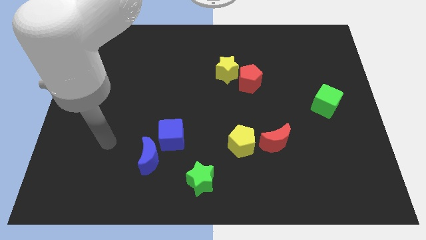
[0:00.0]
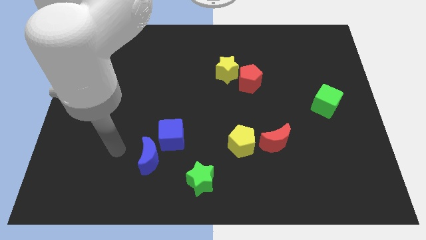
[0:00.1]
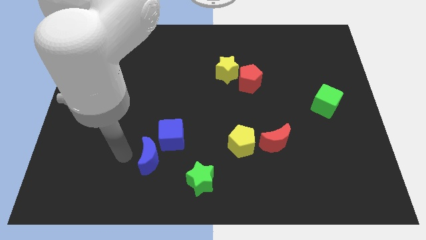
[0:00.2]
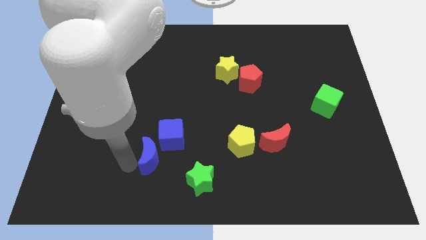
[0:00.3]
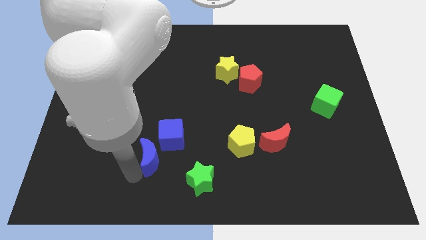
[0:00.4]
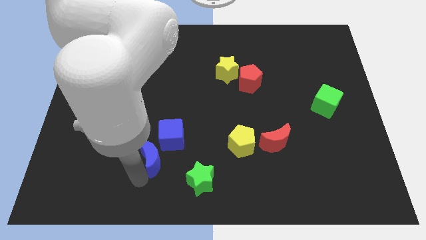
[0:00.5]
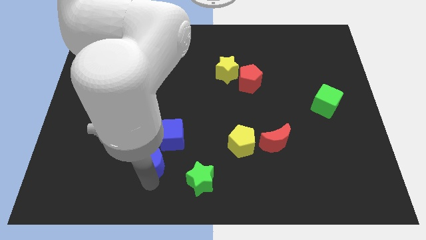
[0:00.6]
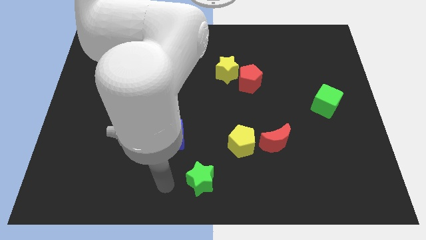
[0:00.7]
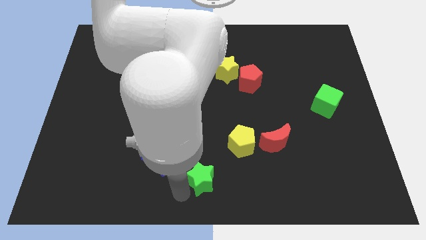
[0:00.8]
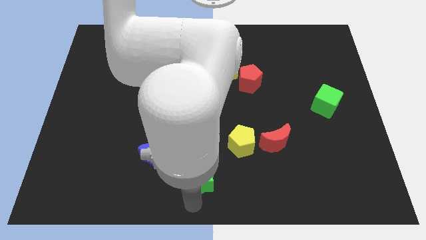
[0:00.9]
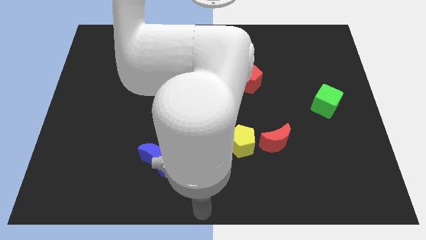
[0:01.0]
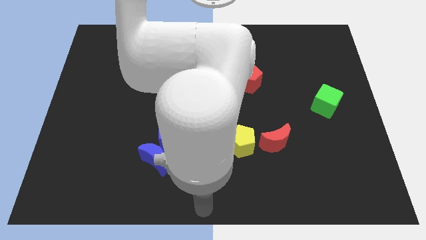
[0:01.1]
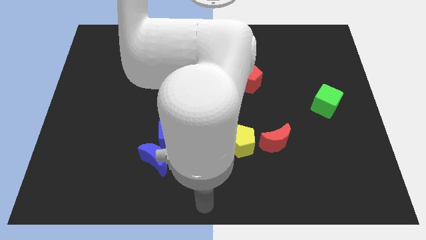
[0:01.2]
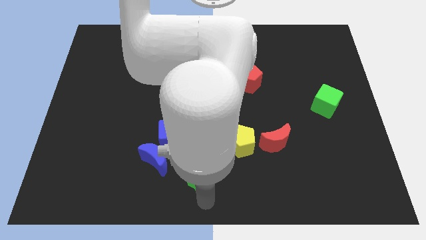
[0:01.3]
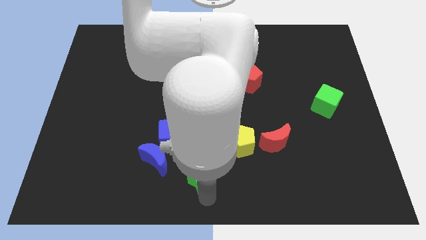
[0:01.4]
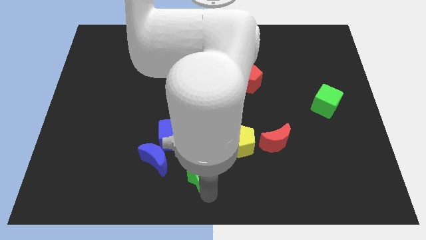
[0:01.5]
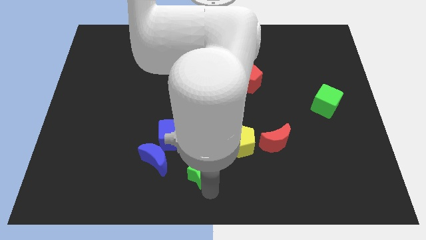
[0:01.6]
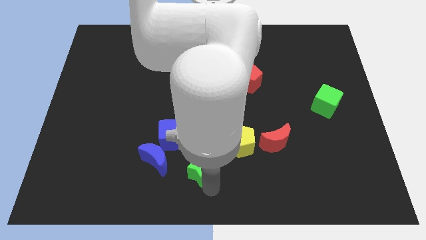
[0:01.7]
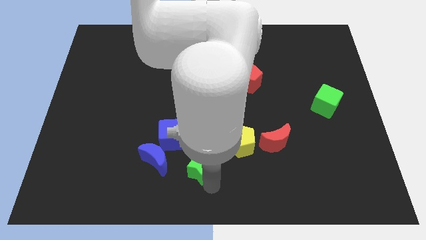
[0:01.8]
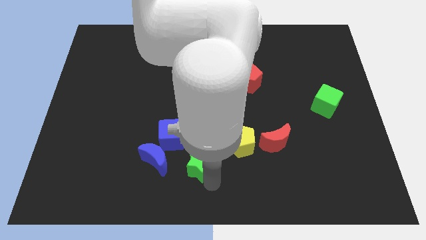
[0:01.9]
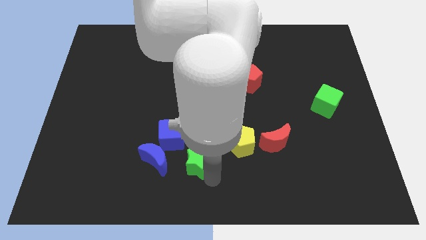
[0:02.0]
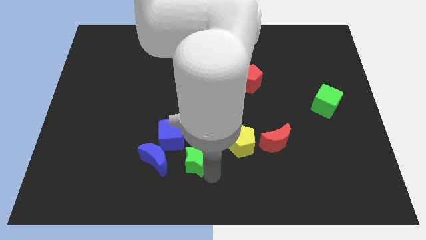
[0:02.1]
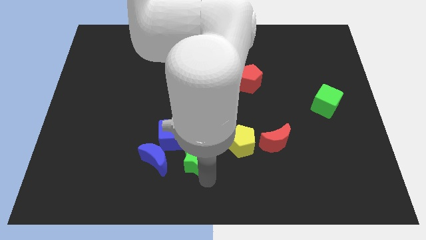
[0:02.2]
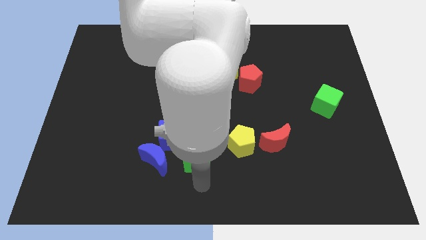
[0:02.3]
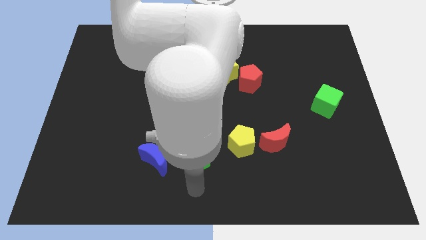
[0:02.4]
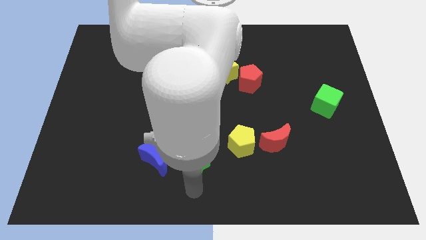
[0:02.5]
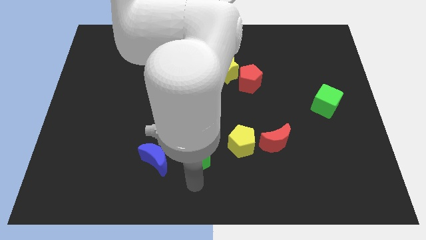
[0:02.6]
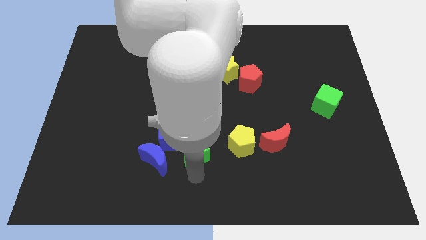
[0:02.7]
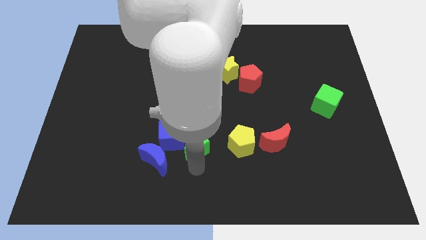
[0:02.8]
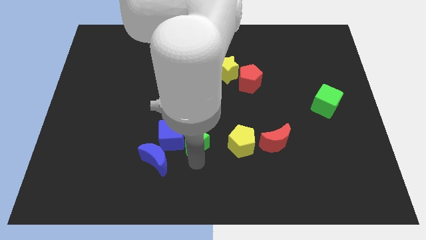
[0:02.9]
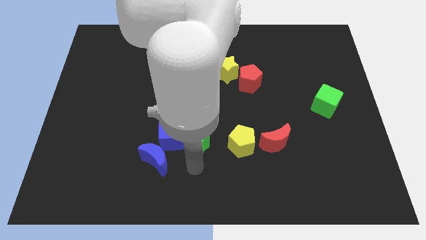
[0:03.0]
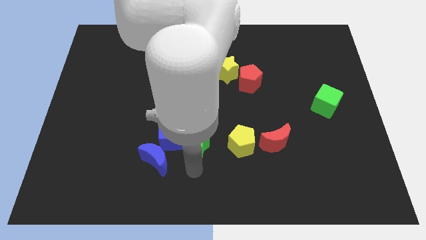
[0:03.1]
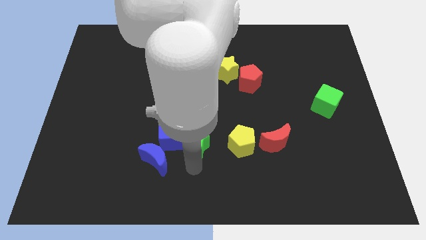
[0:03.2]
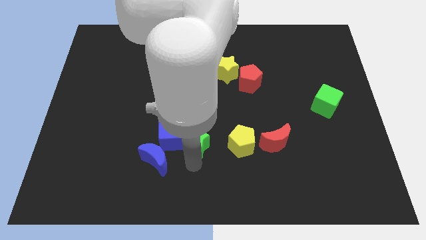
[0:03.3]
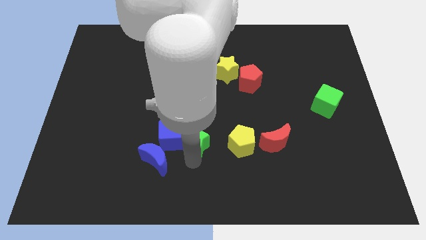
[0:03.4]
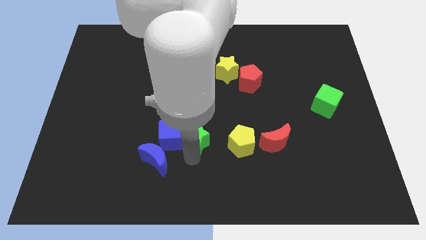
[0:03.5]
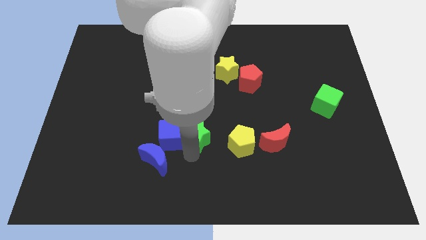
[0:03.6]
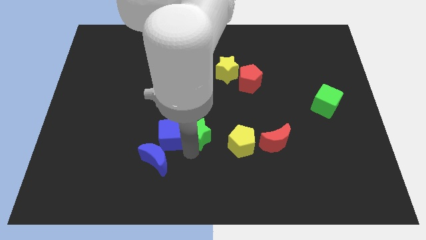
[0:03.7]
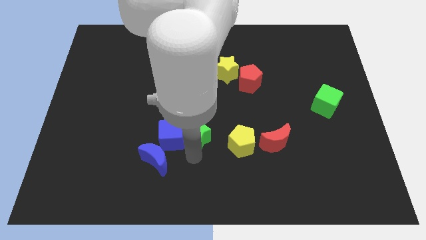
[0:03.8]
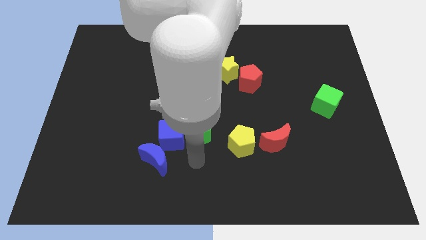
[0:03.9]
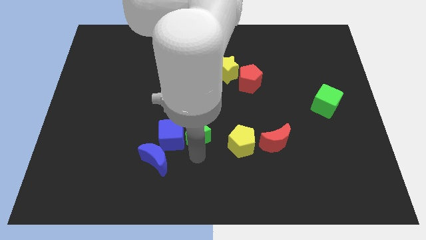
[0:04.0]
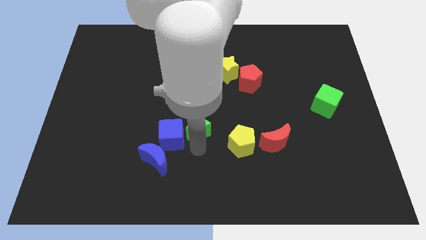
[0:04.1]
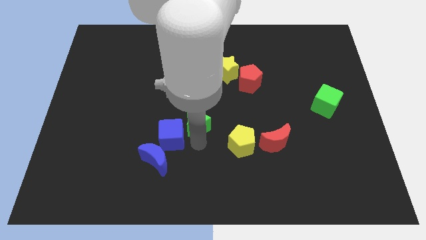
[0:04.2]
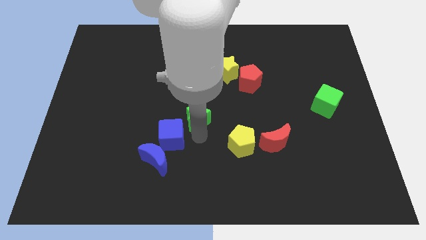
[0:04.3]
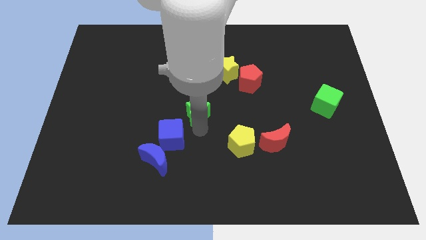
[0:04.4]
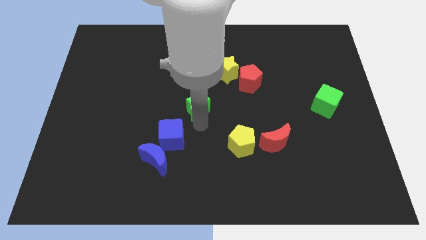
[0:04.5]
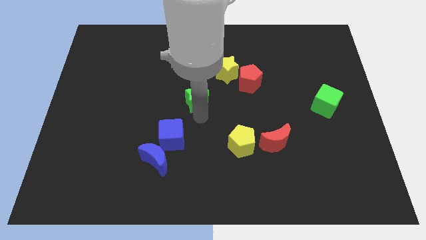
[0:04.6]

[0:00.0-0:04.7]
push the green star upwards

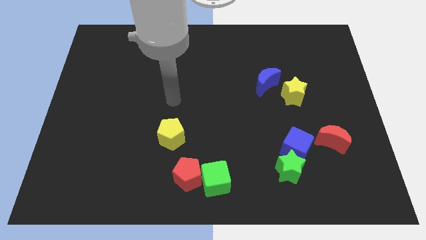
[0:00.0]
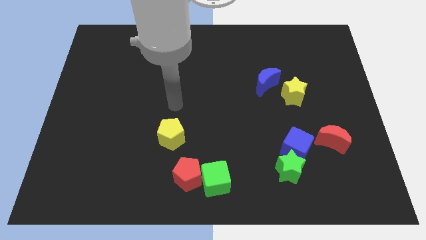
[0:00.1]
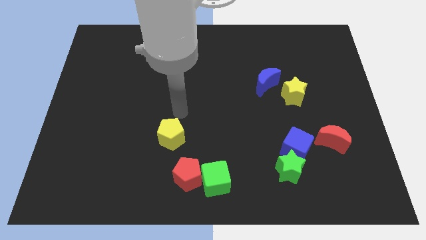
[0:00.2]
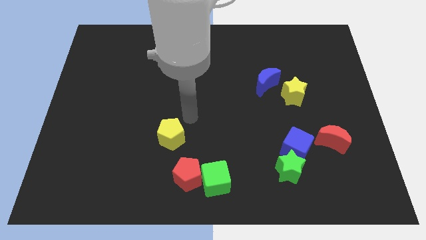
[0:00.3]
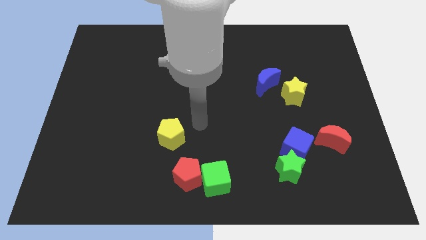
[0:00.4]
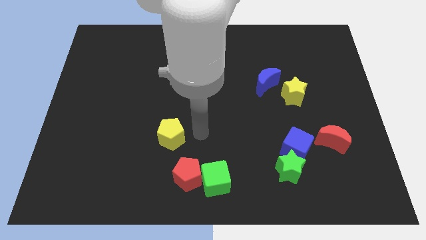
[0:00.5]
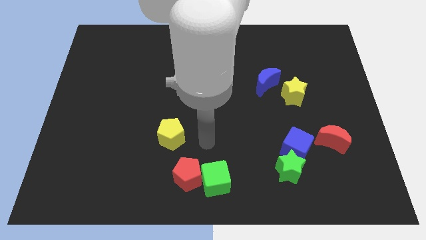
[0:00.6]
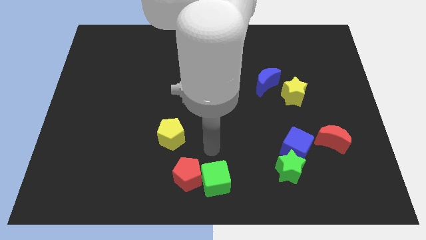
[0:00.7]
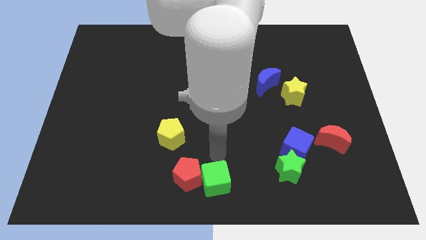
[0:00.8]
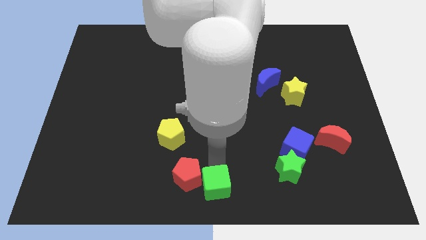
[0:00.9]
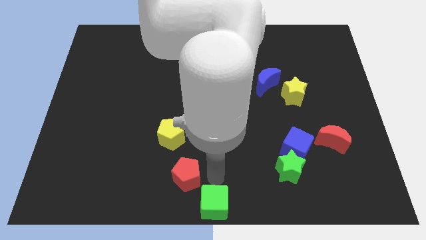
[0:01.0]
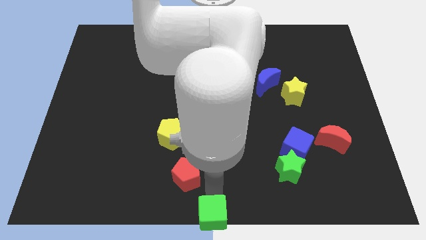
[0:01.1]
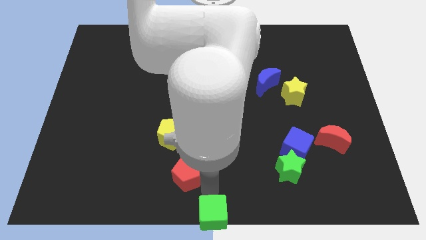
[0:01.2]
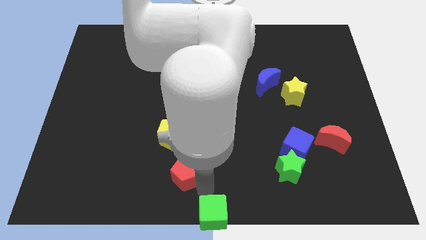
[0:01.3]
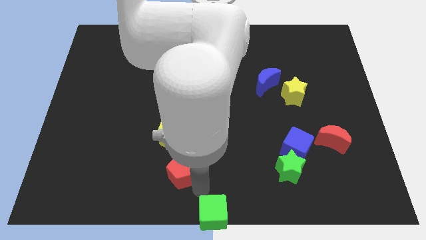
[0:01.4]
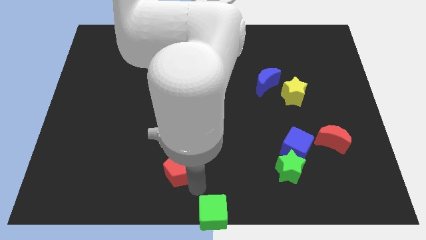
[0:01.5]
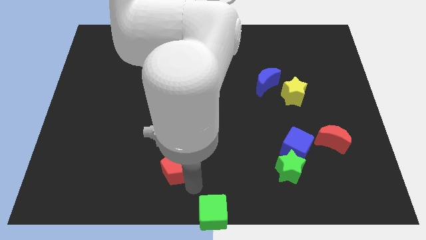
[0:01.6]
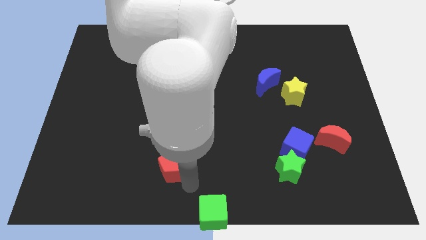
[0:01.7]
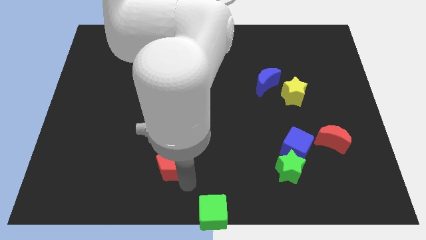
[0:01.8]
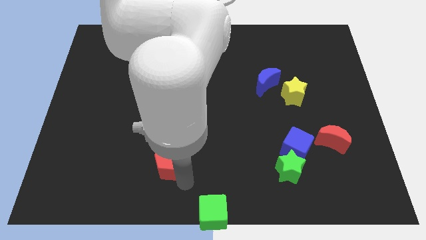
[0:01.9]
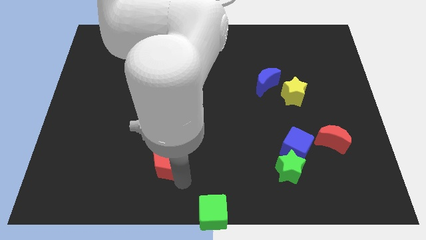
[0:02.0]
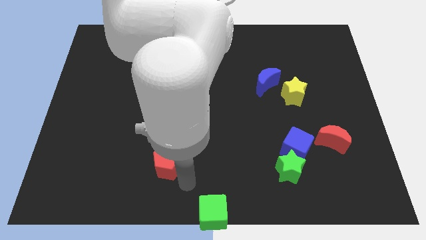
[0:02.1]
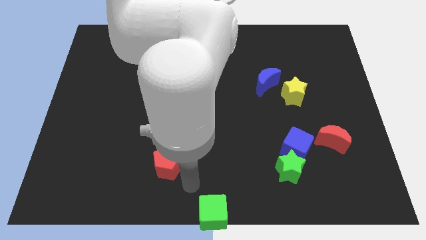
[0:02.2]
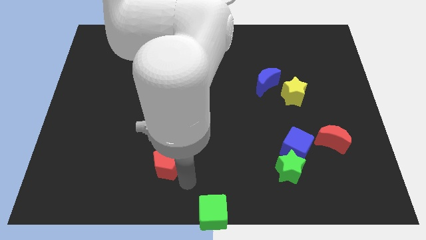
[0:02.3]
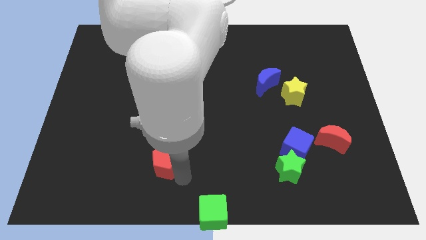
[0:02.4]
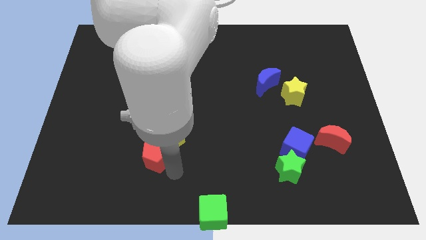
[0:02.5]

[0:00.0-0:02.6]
slightly move the red pentagon diagonally up and to the left

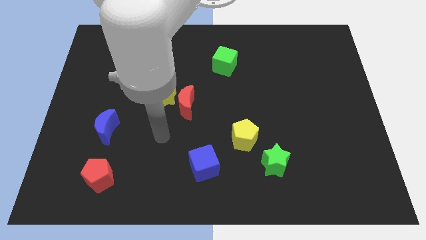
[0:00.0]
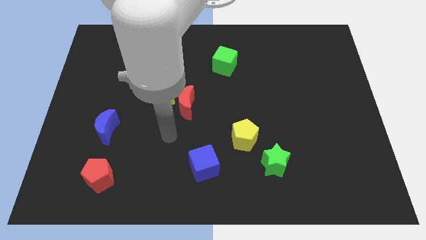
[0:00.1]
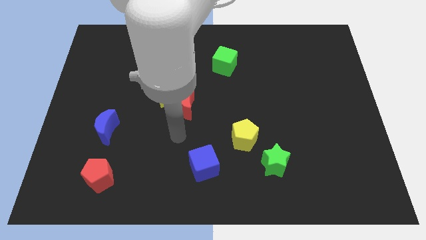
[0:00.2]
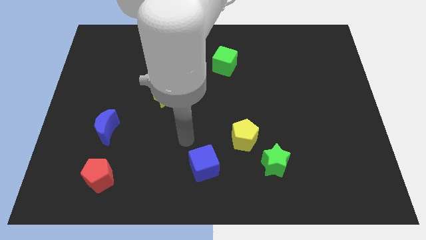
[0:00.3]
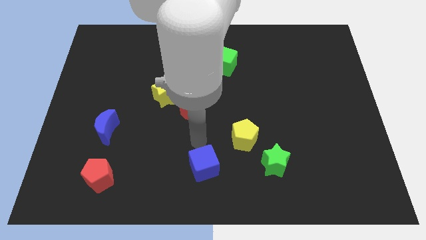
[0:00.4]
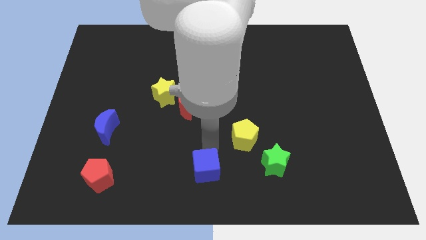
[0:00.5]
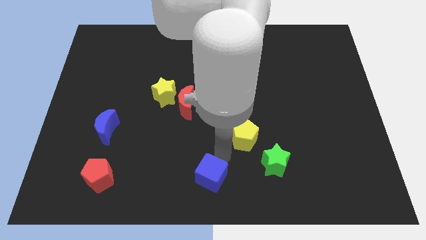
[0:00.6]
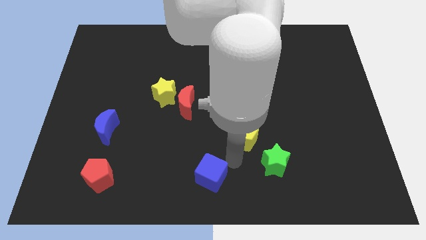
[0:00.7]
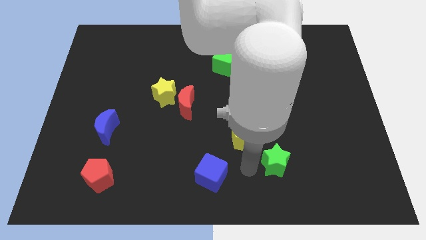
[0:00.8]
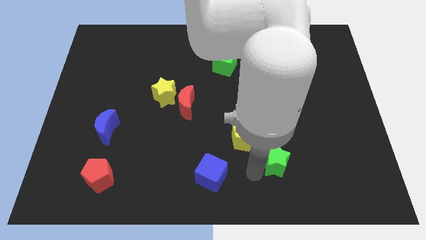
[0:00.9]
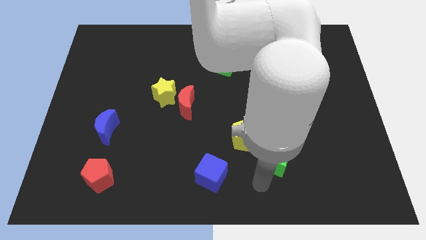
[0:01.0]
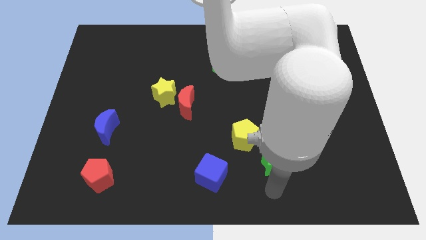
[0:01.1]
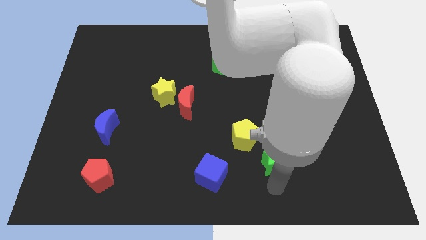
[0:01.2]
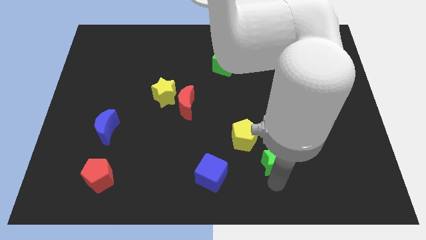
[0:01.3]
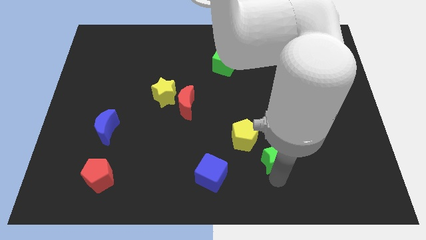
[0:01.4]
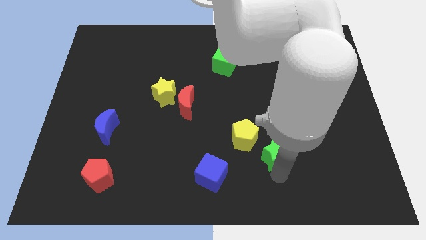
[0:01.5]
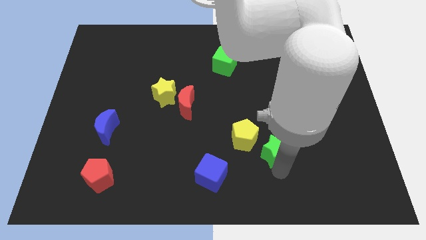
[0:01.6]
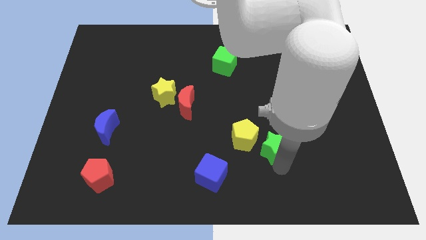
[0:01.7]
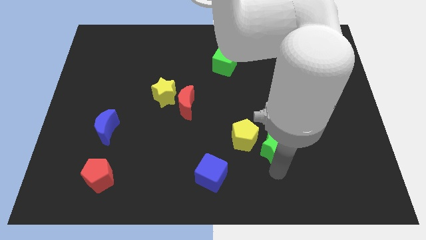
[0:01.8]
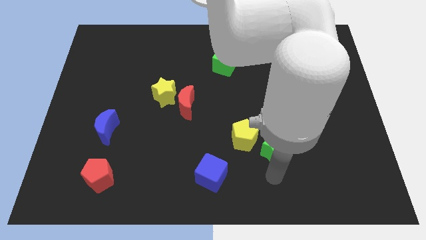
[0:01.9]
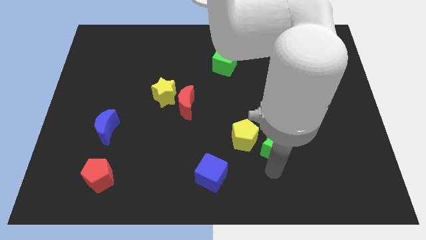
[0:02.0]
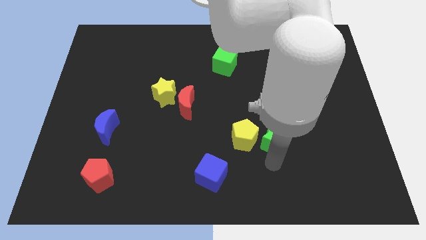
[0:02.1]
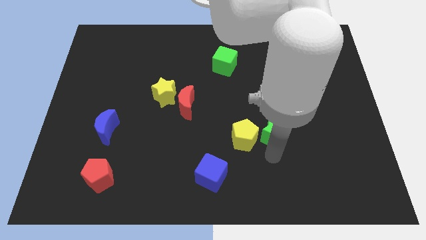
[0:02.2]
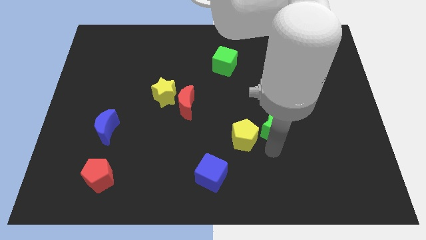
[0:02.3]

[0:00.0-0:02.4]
slide the green star slightly up
